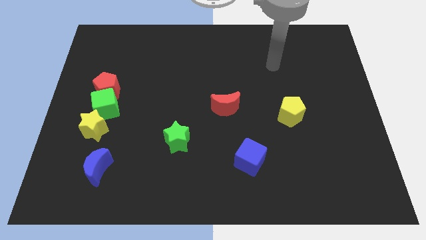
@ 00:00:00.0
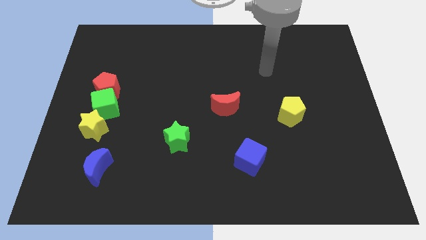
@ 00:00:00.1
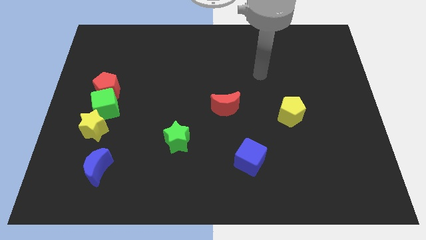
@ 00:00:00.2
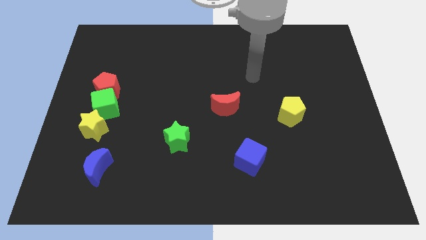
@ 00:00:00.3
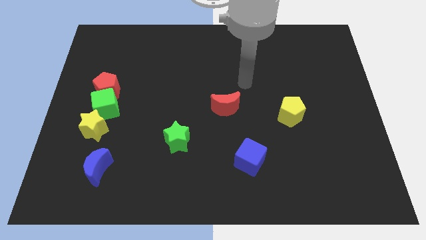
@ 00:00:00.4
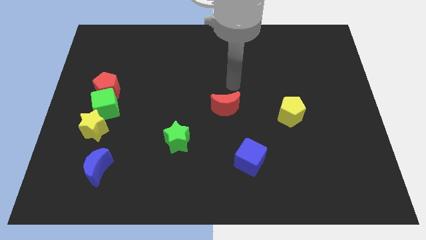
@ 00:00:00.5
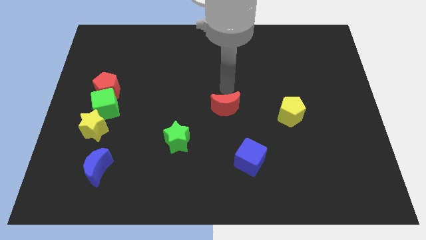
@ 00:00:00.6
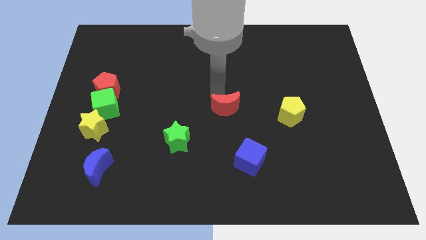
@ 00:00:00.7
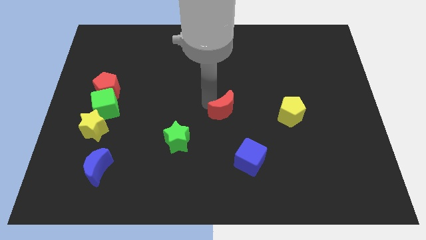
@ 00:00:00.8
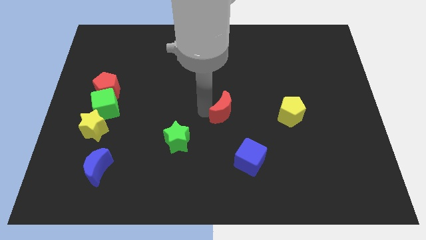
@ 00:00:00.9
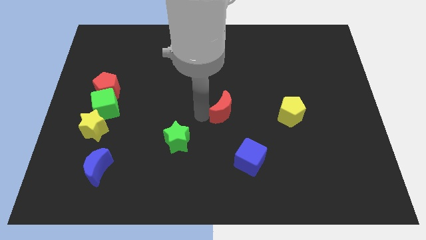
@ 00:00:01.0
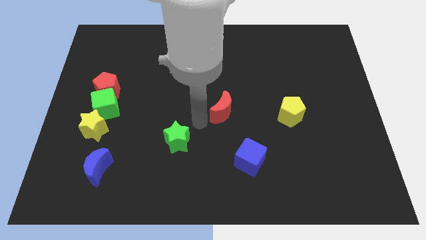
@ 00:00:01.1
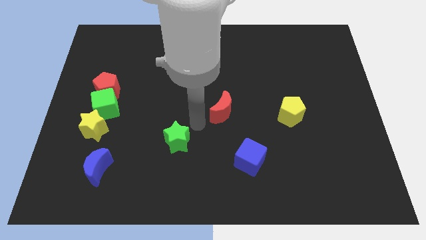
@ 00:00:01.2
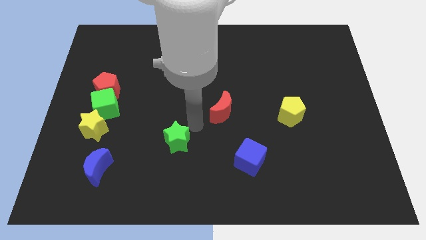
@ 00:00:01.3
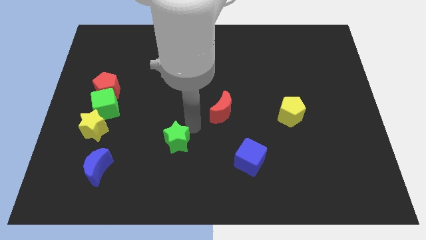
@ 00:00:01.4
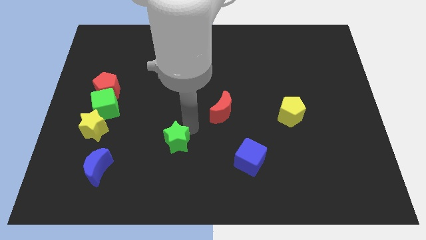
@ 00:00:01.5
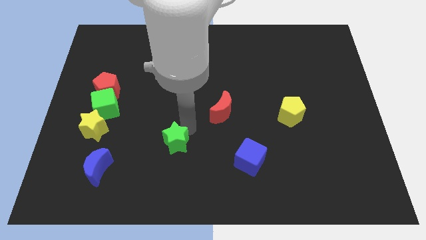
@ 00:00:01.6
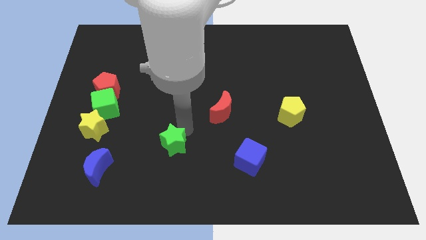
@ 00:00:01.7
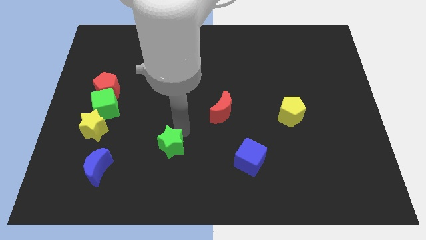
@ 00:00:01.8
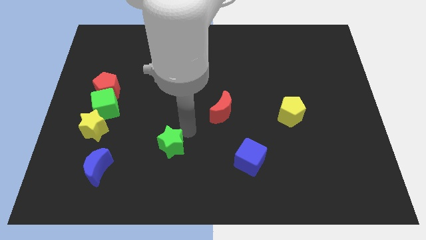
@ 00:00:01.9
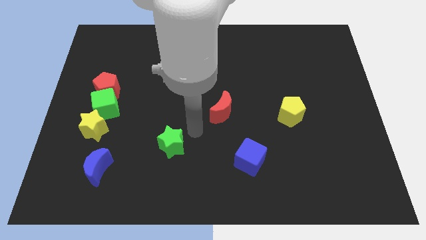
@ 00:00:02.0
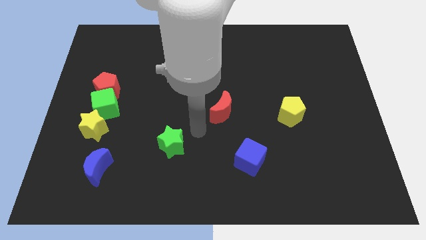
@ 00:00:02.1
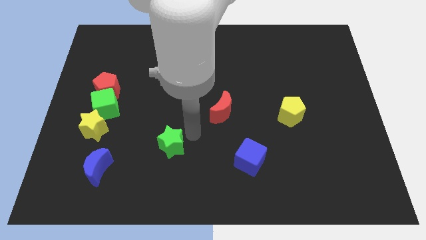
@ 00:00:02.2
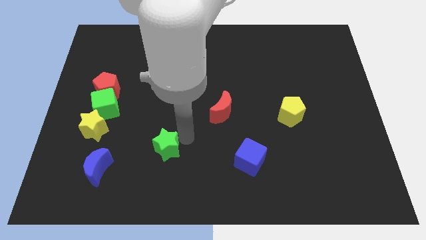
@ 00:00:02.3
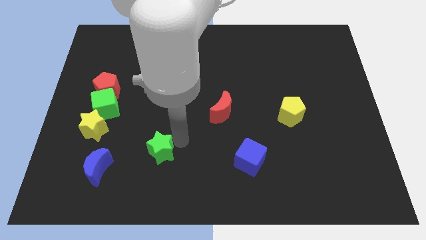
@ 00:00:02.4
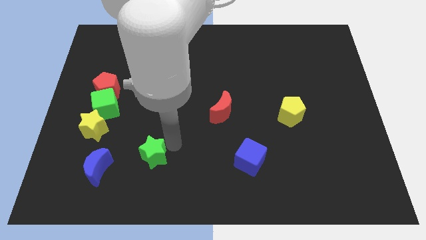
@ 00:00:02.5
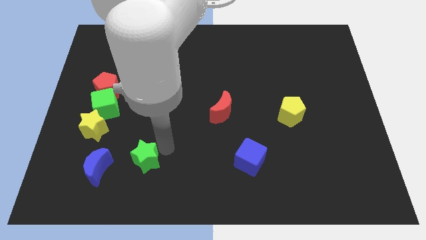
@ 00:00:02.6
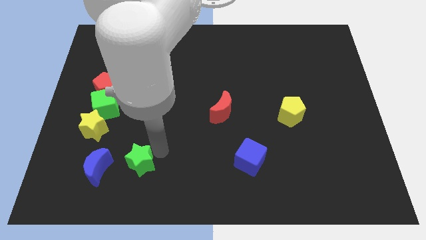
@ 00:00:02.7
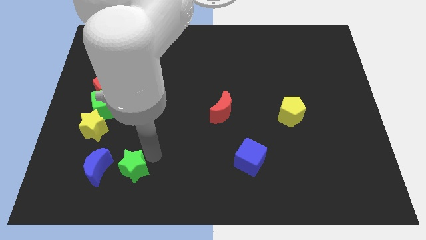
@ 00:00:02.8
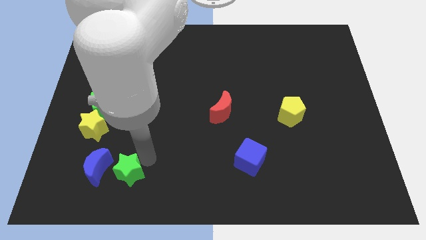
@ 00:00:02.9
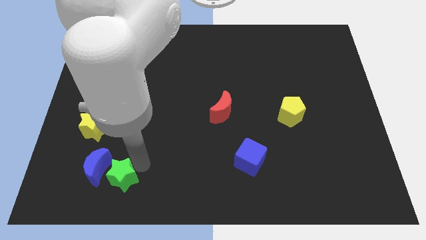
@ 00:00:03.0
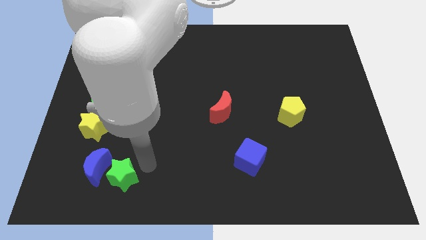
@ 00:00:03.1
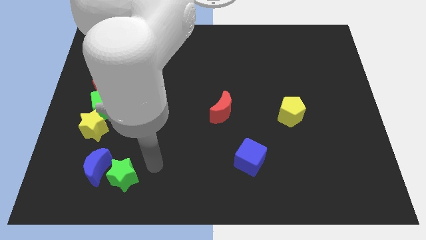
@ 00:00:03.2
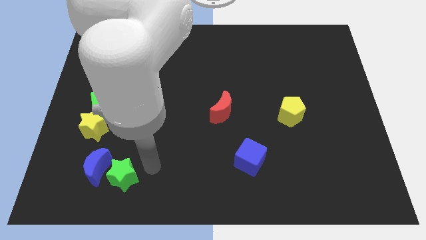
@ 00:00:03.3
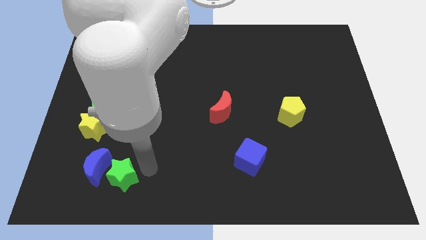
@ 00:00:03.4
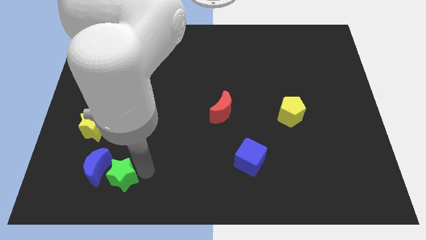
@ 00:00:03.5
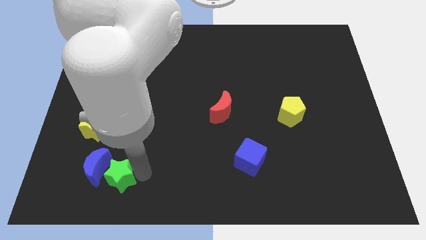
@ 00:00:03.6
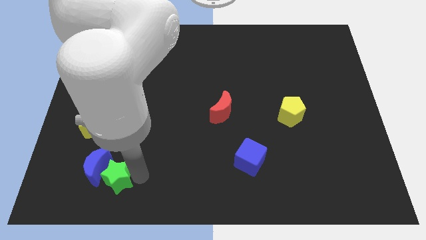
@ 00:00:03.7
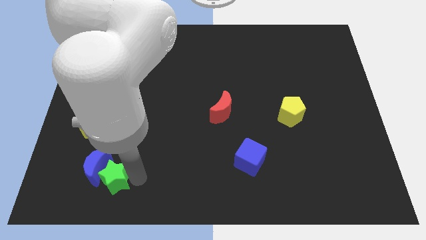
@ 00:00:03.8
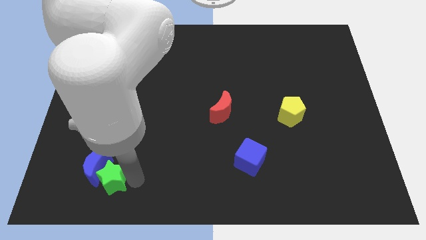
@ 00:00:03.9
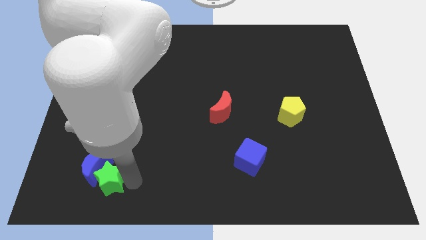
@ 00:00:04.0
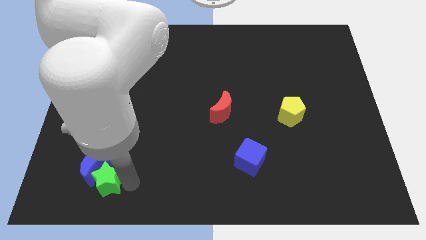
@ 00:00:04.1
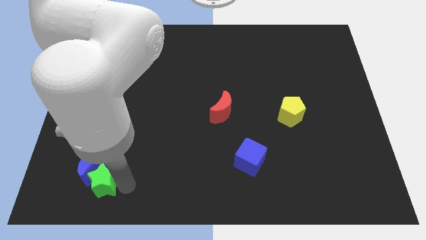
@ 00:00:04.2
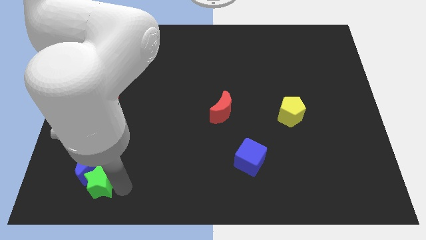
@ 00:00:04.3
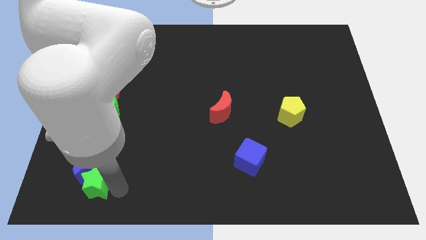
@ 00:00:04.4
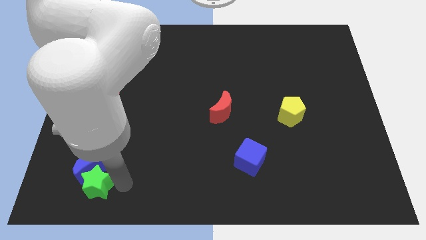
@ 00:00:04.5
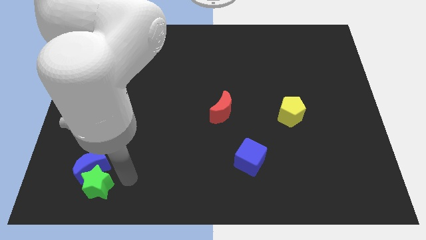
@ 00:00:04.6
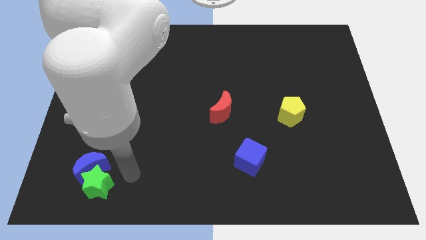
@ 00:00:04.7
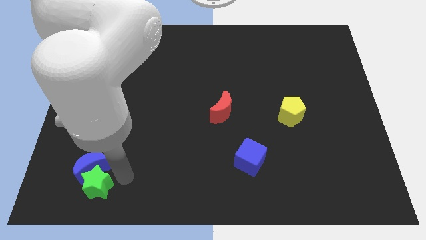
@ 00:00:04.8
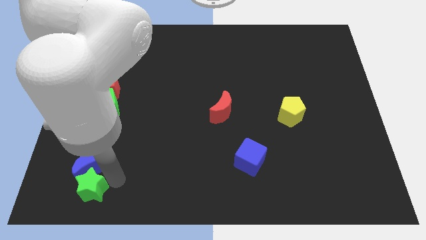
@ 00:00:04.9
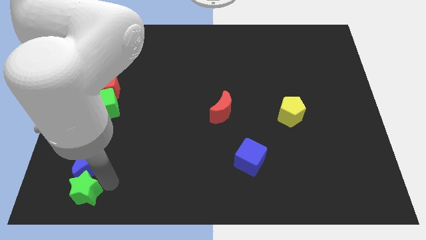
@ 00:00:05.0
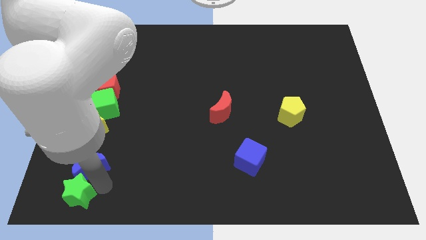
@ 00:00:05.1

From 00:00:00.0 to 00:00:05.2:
move the green star to the lower left corner

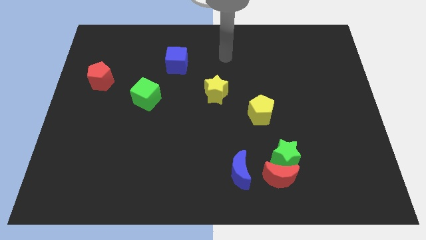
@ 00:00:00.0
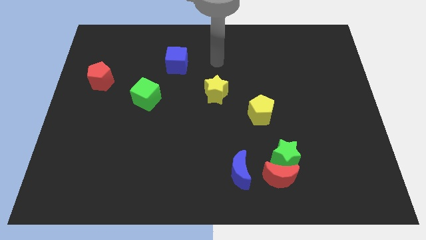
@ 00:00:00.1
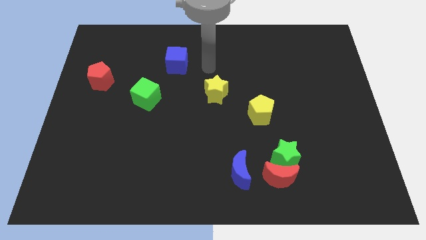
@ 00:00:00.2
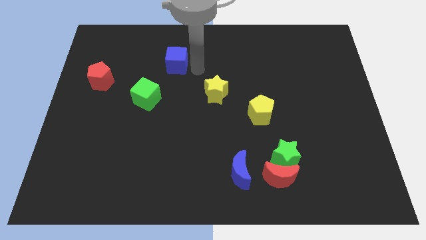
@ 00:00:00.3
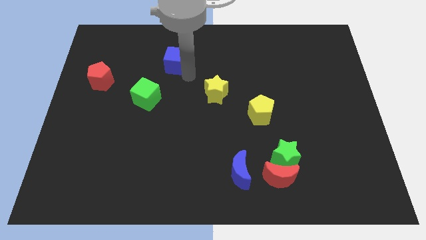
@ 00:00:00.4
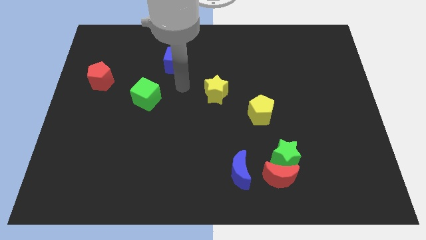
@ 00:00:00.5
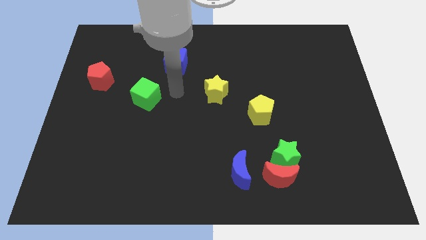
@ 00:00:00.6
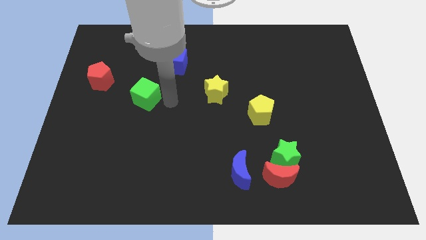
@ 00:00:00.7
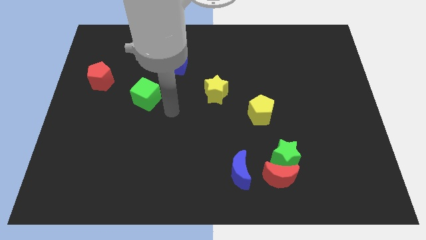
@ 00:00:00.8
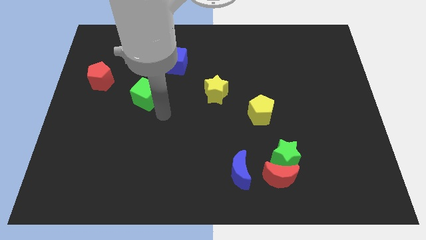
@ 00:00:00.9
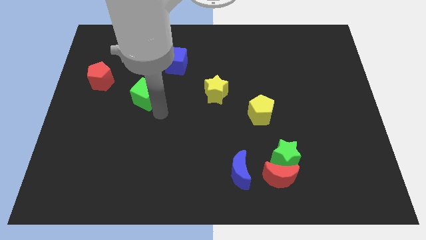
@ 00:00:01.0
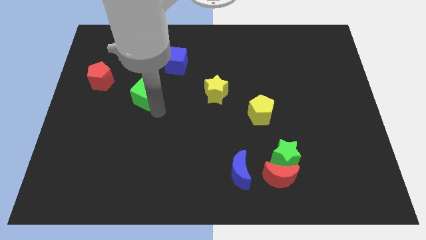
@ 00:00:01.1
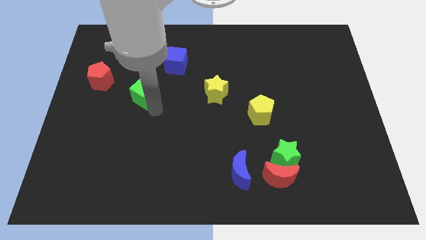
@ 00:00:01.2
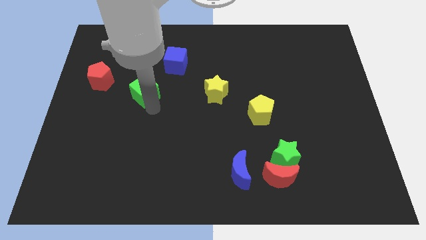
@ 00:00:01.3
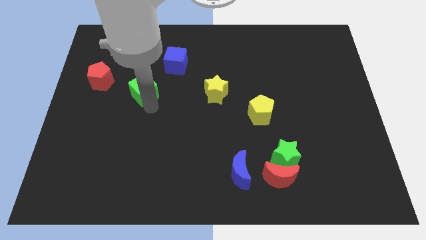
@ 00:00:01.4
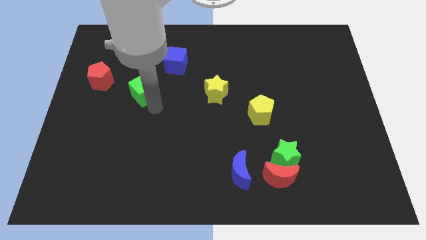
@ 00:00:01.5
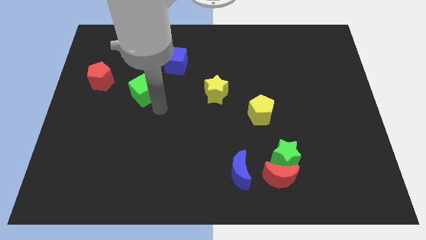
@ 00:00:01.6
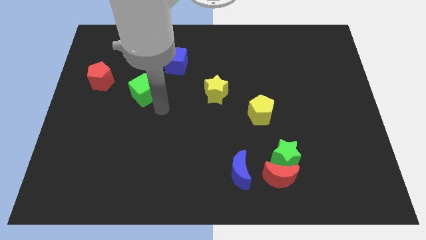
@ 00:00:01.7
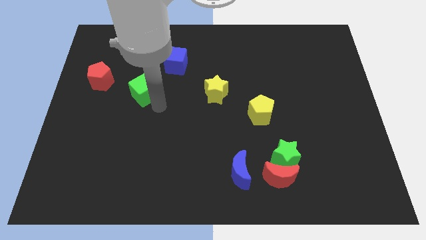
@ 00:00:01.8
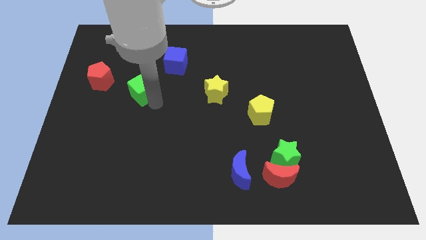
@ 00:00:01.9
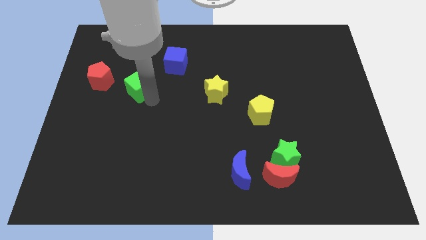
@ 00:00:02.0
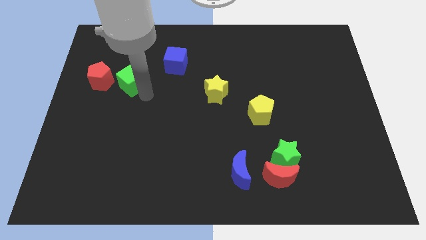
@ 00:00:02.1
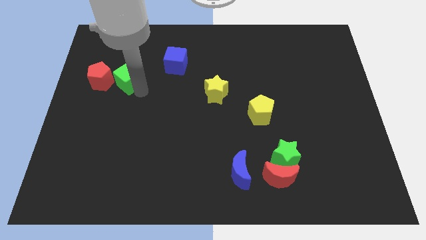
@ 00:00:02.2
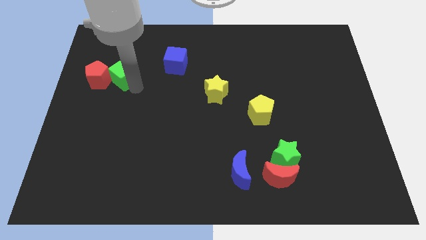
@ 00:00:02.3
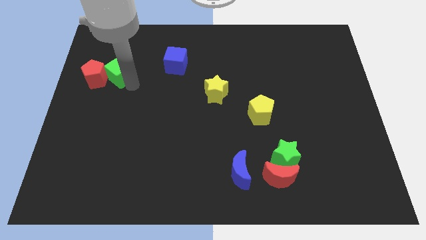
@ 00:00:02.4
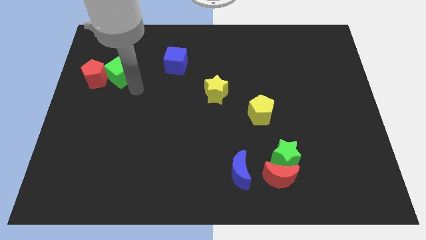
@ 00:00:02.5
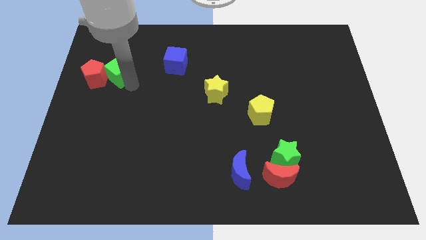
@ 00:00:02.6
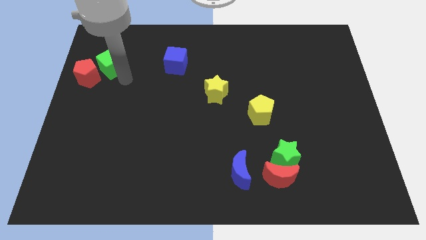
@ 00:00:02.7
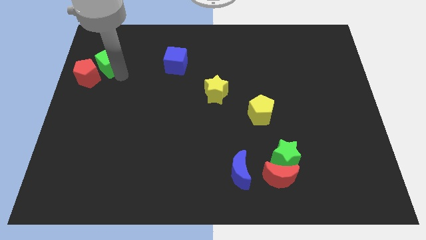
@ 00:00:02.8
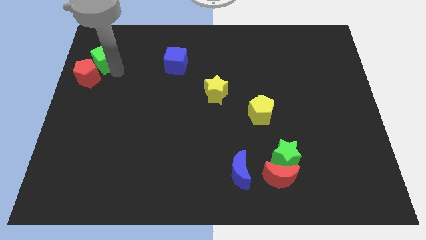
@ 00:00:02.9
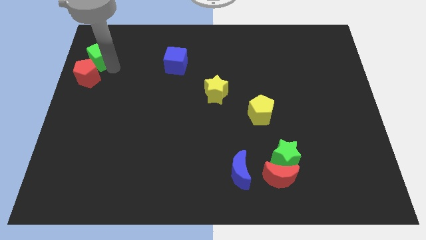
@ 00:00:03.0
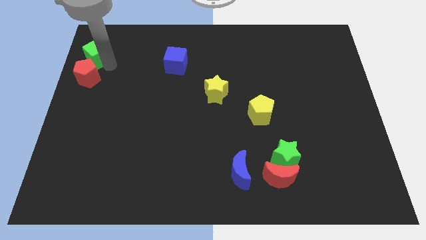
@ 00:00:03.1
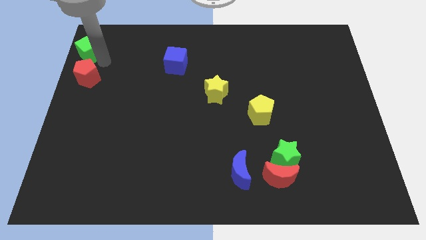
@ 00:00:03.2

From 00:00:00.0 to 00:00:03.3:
push the green cube to the upper left corner
